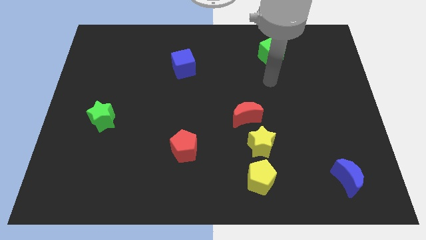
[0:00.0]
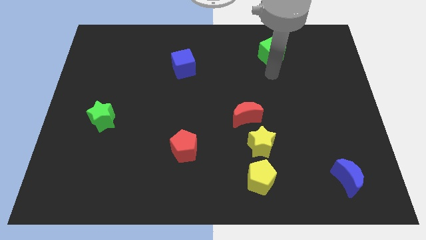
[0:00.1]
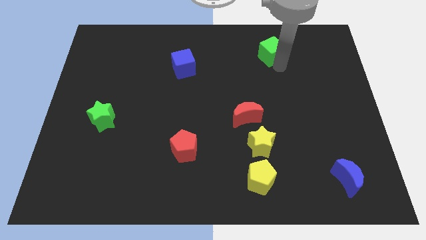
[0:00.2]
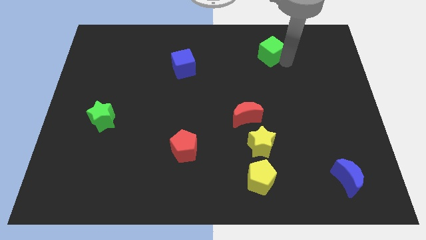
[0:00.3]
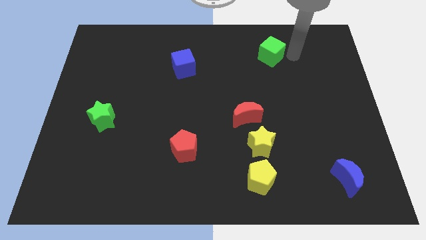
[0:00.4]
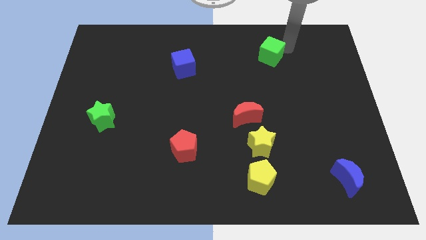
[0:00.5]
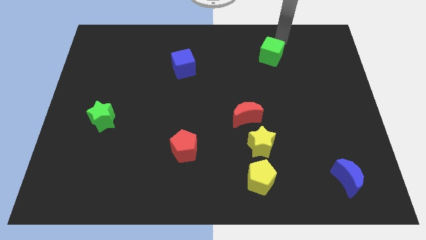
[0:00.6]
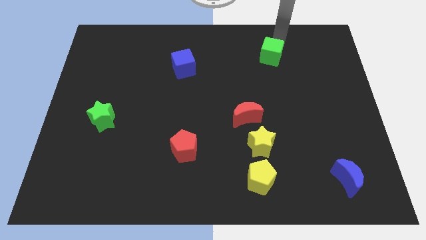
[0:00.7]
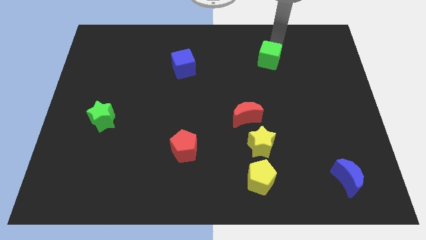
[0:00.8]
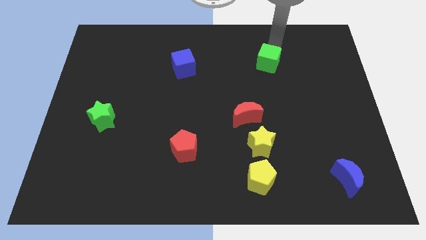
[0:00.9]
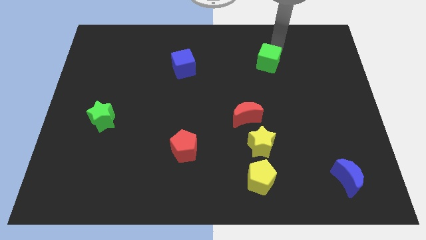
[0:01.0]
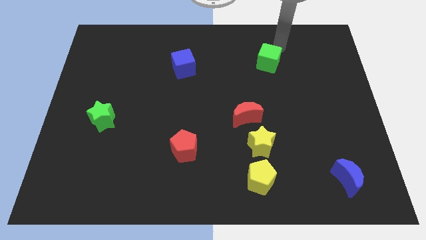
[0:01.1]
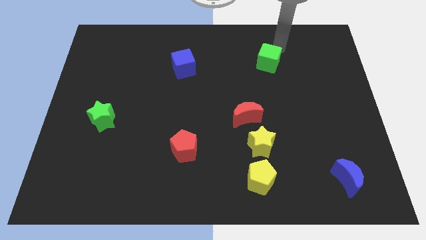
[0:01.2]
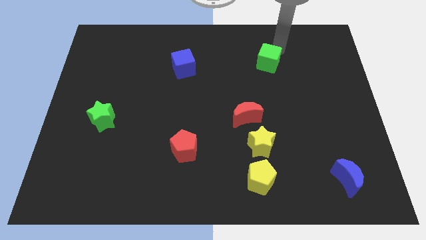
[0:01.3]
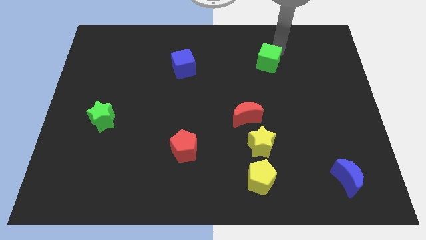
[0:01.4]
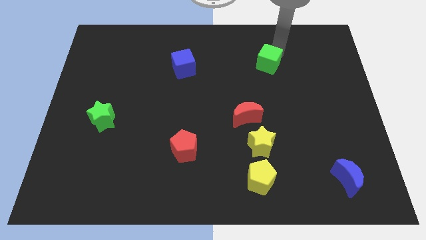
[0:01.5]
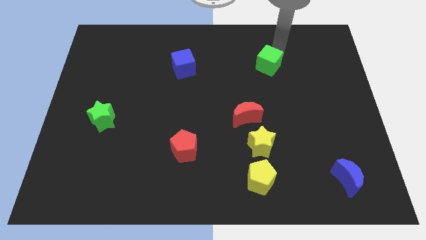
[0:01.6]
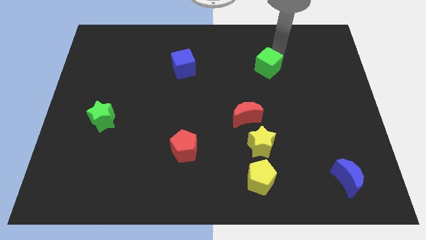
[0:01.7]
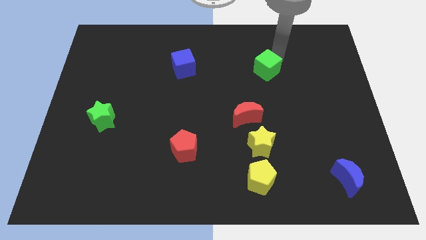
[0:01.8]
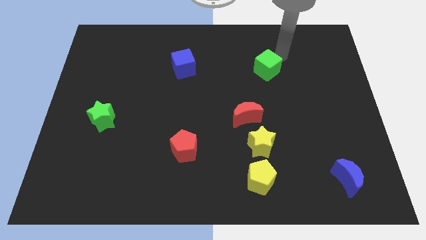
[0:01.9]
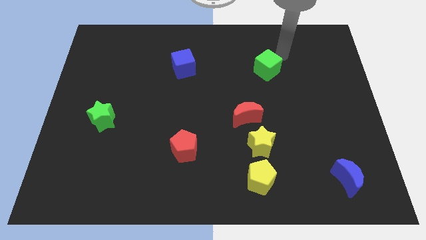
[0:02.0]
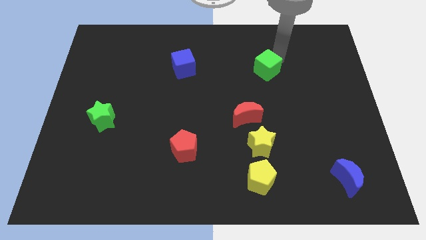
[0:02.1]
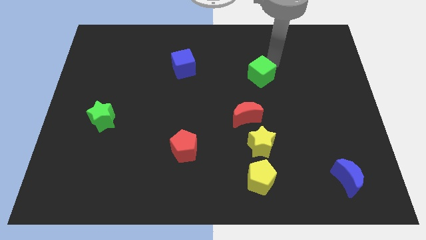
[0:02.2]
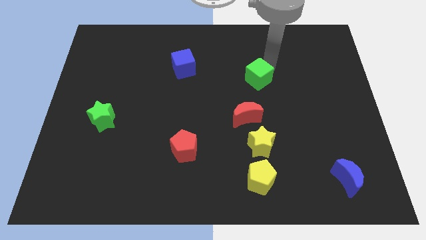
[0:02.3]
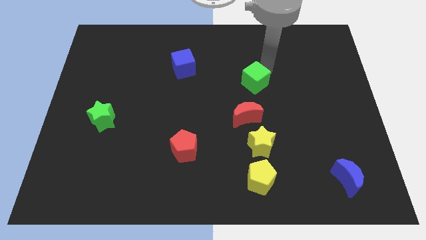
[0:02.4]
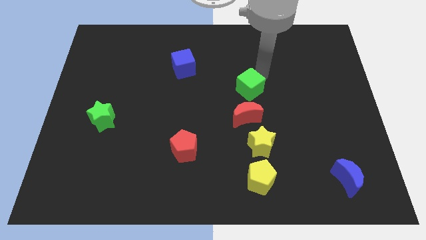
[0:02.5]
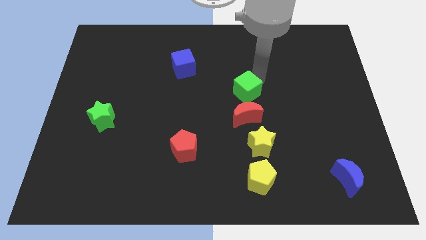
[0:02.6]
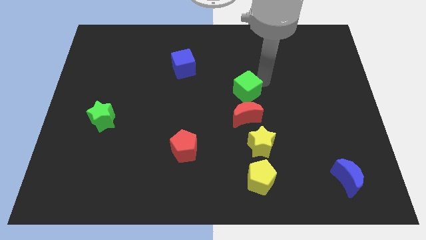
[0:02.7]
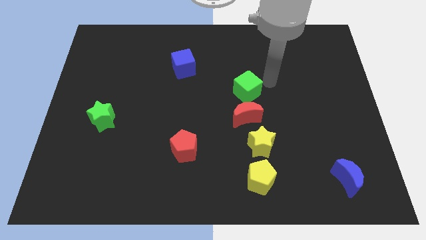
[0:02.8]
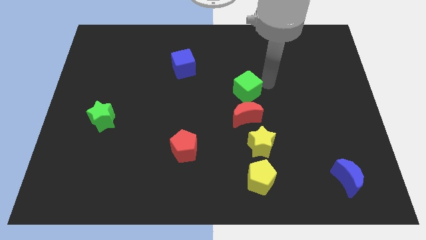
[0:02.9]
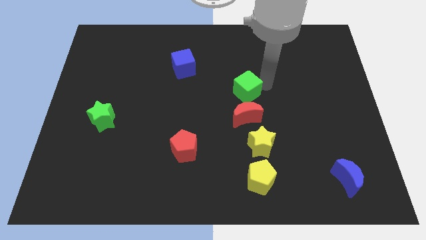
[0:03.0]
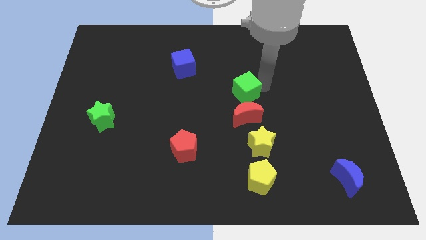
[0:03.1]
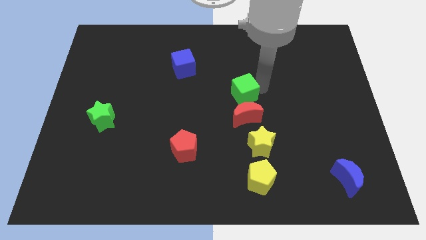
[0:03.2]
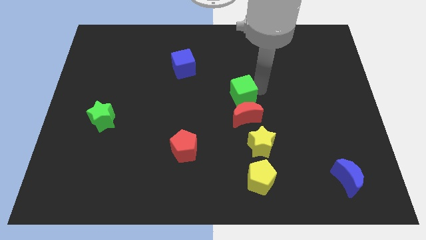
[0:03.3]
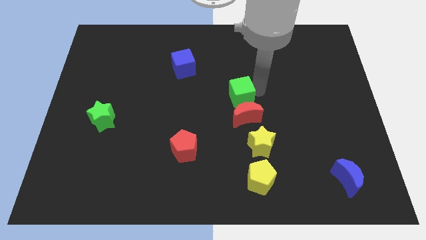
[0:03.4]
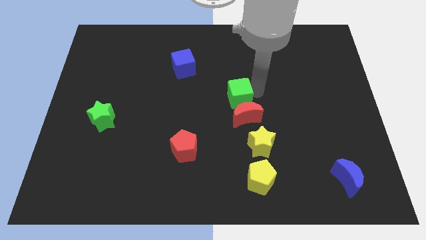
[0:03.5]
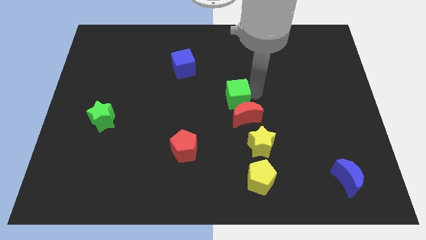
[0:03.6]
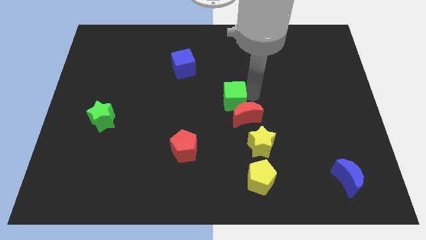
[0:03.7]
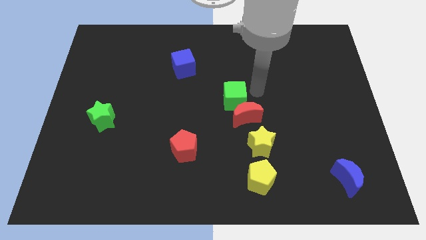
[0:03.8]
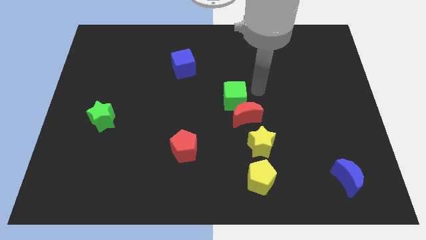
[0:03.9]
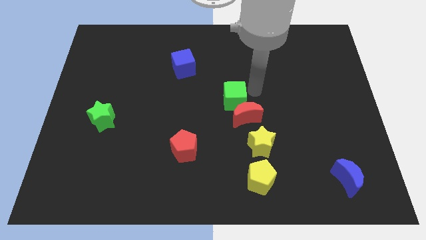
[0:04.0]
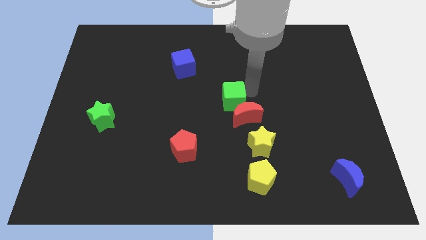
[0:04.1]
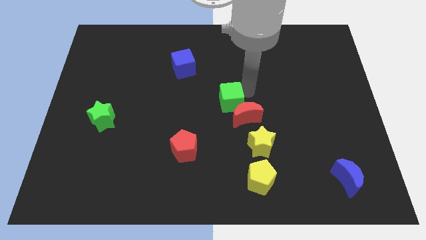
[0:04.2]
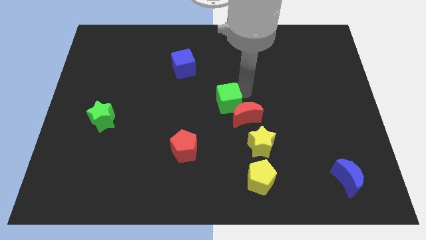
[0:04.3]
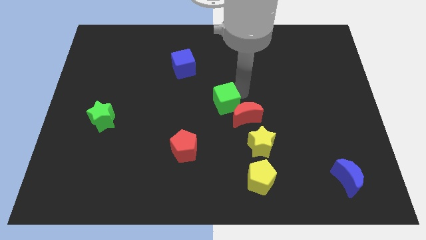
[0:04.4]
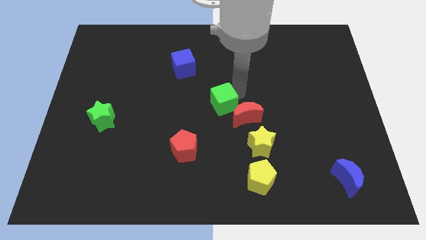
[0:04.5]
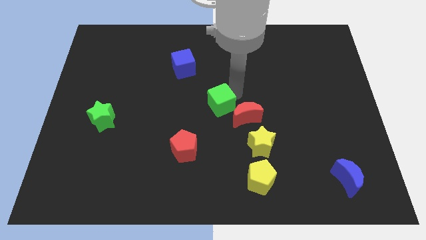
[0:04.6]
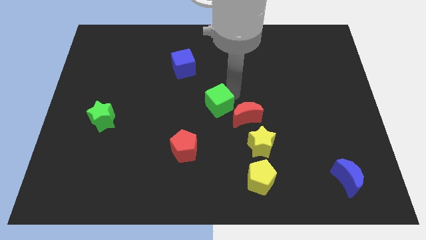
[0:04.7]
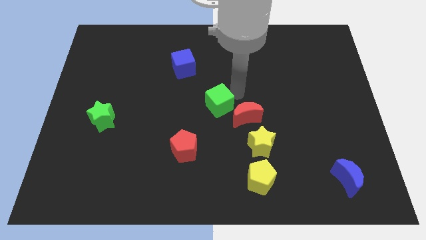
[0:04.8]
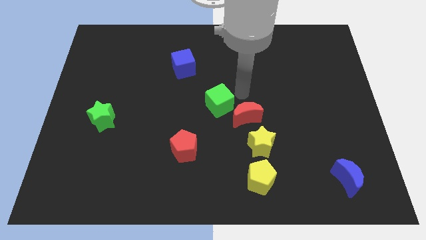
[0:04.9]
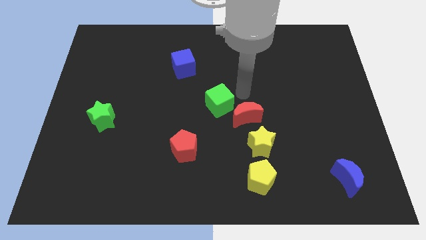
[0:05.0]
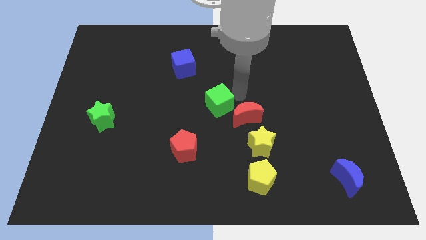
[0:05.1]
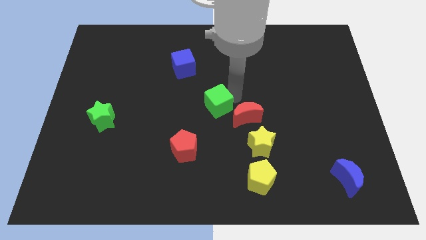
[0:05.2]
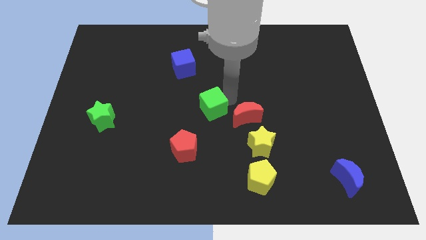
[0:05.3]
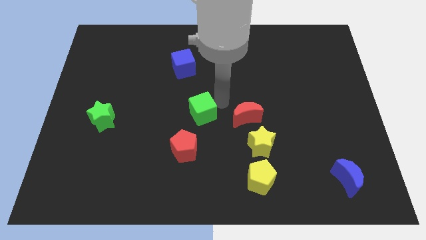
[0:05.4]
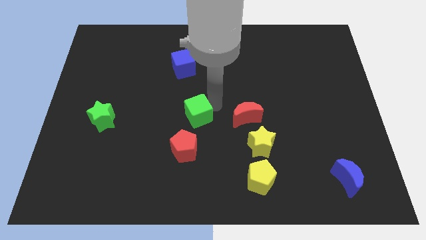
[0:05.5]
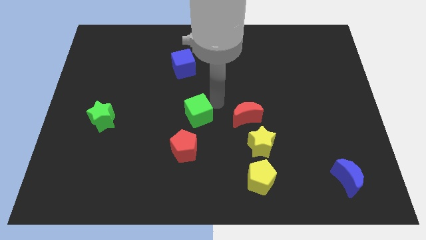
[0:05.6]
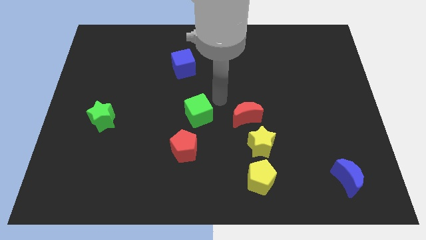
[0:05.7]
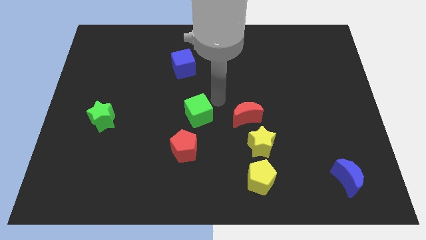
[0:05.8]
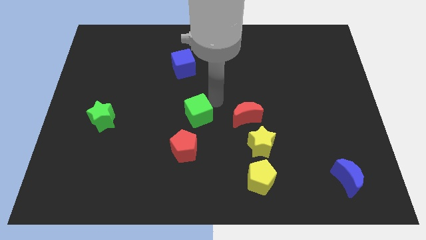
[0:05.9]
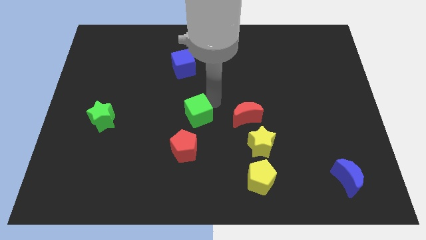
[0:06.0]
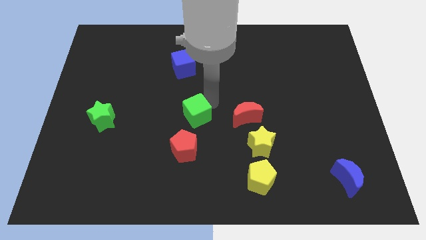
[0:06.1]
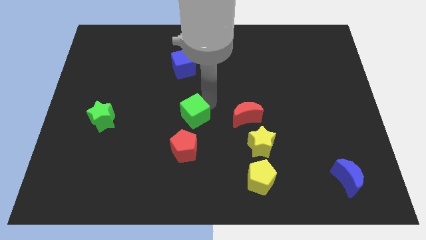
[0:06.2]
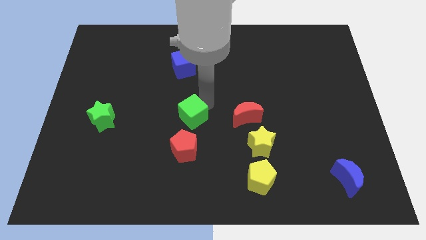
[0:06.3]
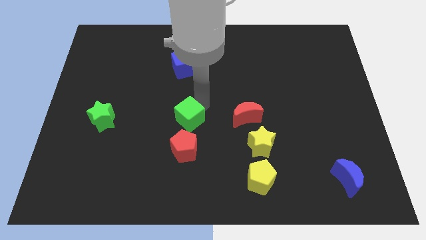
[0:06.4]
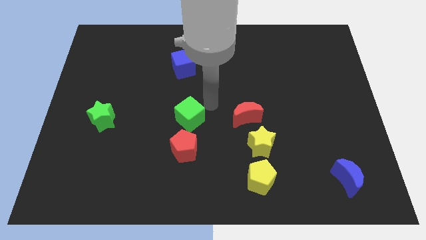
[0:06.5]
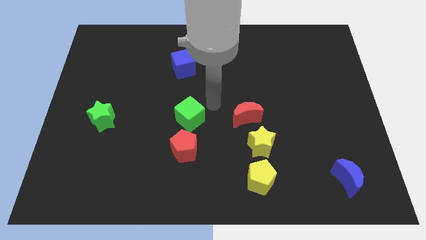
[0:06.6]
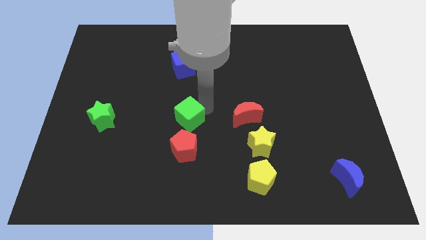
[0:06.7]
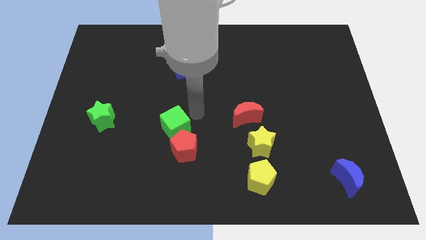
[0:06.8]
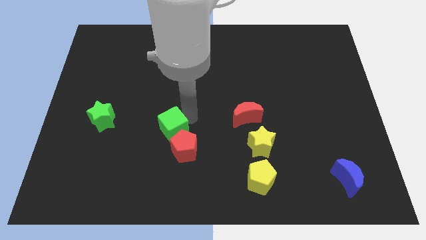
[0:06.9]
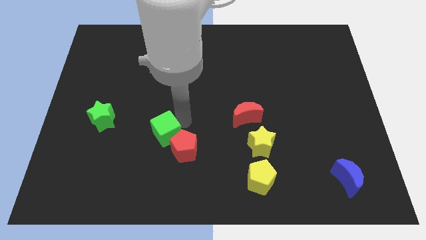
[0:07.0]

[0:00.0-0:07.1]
put the green cube just left of the red pentagon
